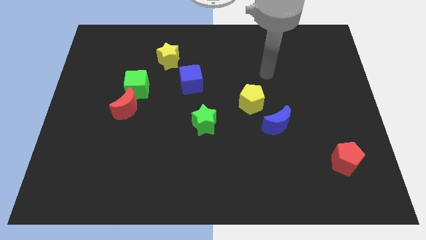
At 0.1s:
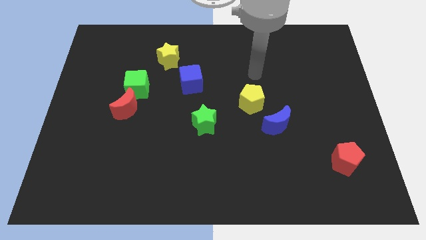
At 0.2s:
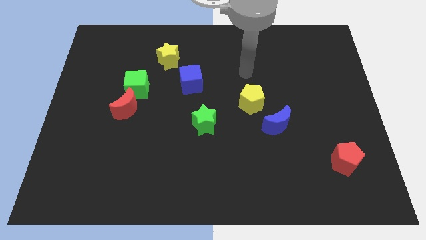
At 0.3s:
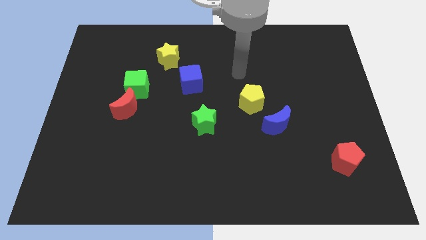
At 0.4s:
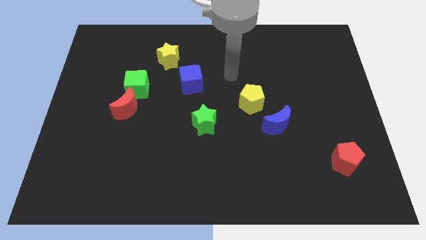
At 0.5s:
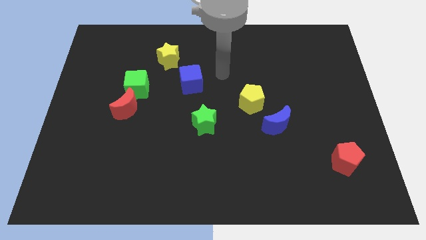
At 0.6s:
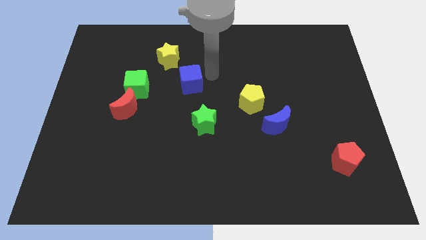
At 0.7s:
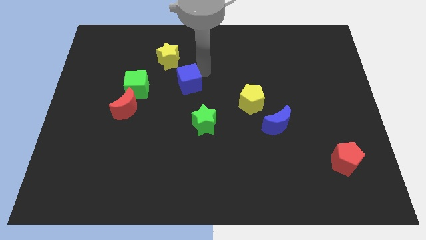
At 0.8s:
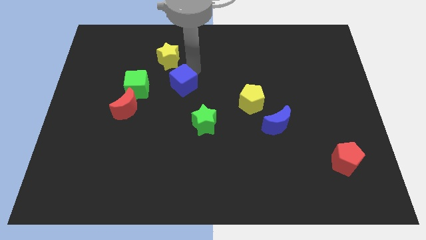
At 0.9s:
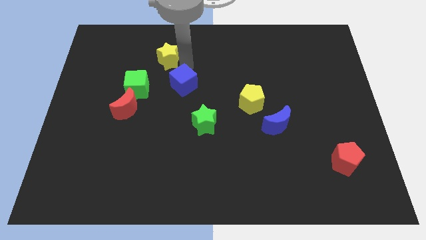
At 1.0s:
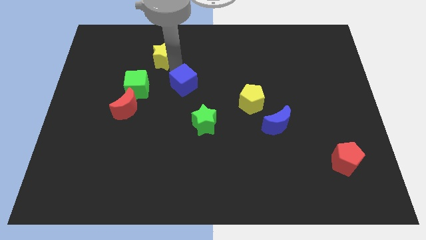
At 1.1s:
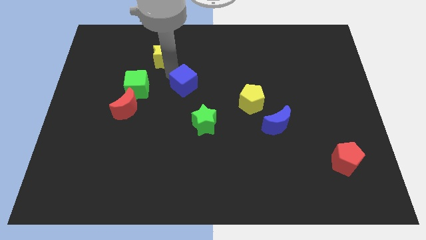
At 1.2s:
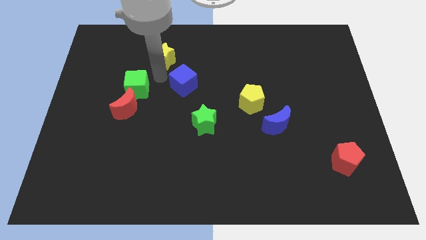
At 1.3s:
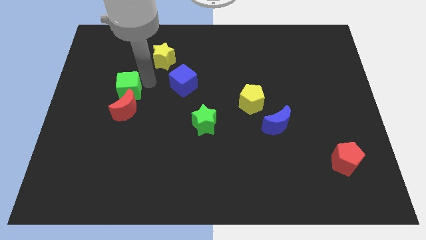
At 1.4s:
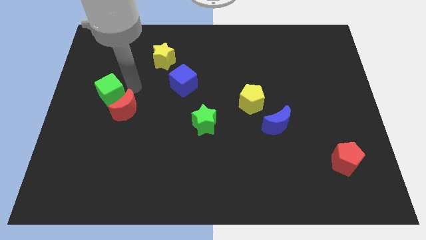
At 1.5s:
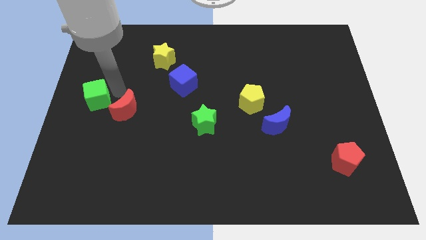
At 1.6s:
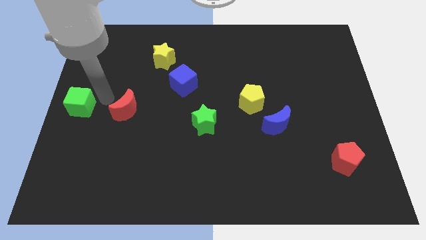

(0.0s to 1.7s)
pull the red moon apart from the green cube

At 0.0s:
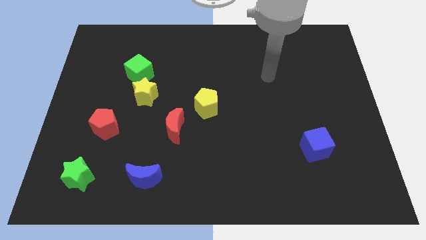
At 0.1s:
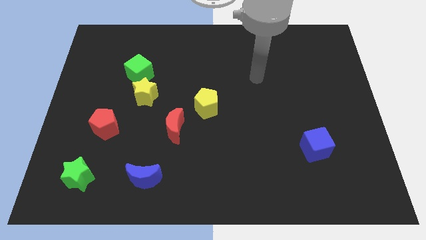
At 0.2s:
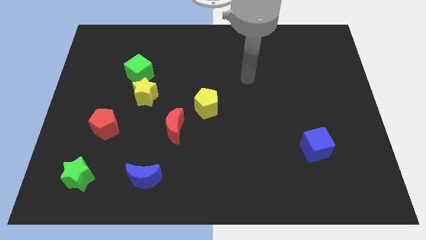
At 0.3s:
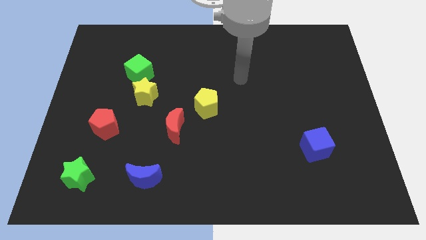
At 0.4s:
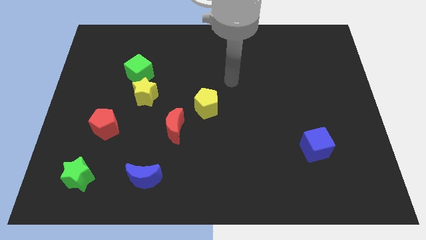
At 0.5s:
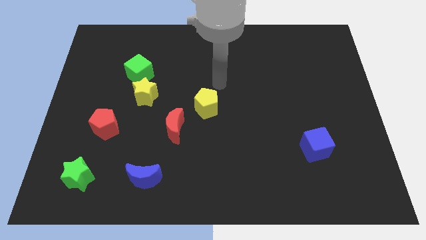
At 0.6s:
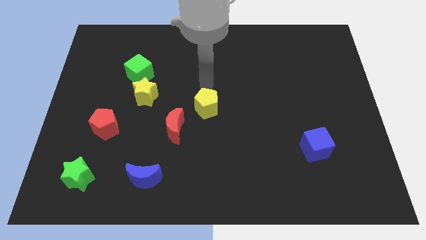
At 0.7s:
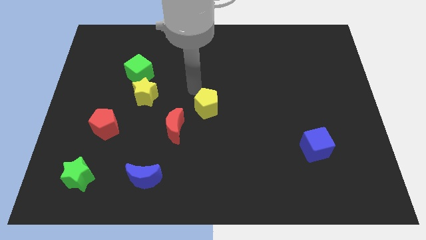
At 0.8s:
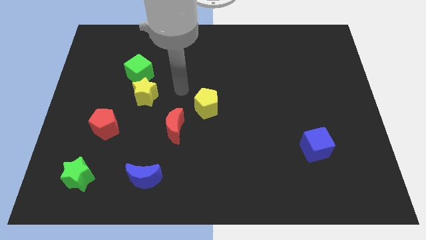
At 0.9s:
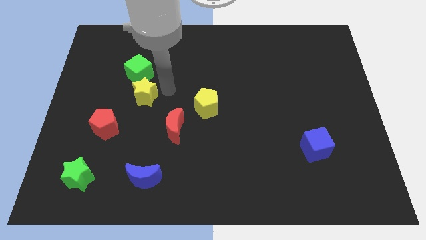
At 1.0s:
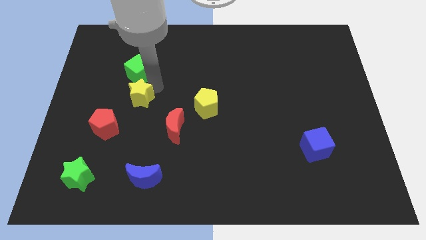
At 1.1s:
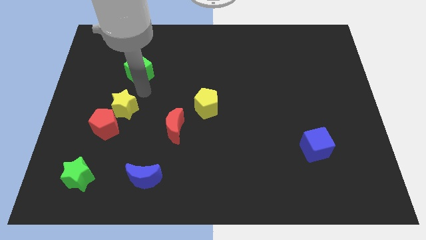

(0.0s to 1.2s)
move the green cube away from the yellow star

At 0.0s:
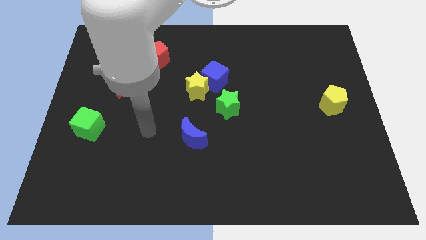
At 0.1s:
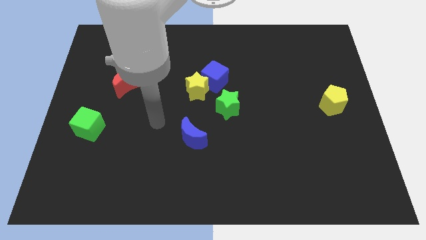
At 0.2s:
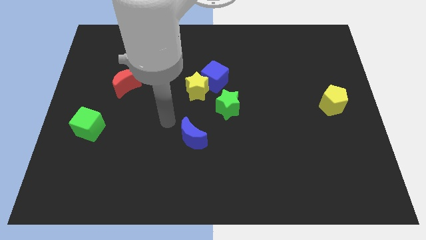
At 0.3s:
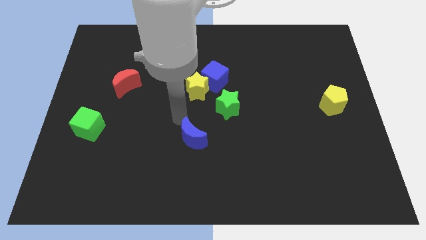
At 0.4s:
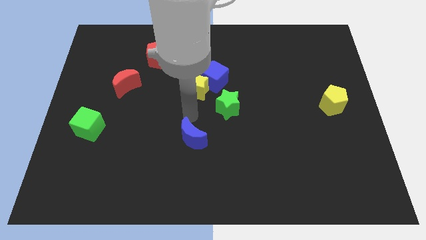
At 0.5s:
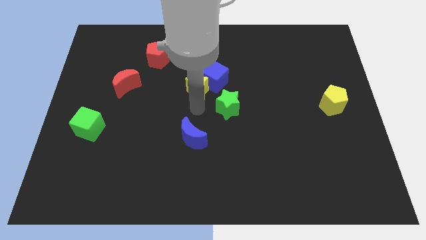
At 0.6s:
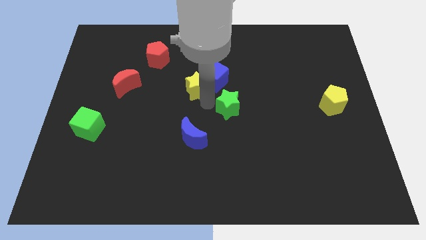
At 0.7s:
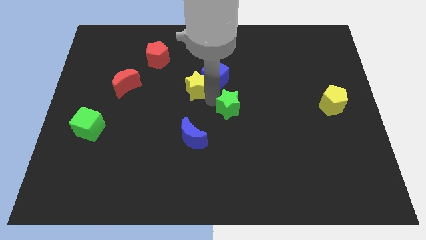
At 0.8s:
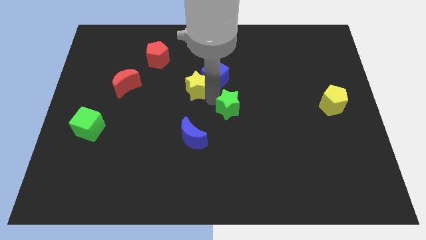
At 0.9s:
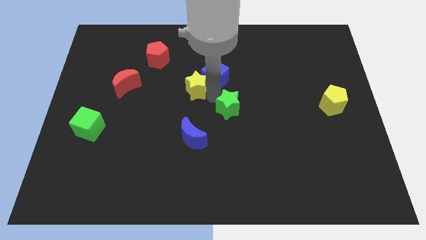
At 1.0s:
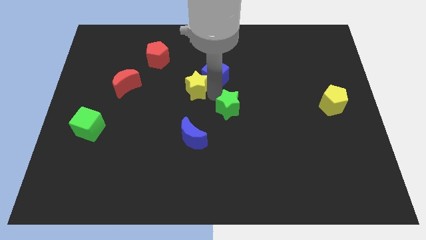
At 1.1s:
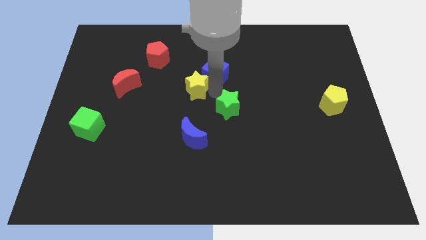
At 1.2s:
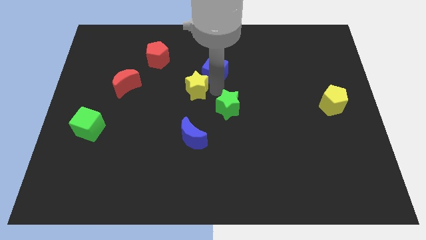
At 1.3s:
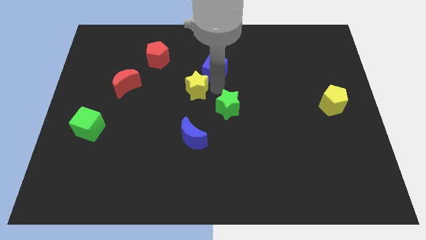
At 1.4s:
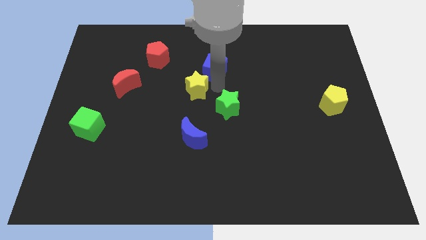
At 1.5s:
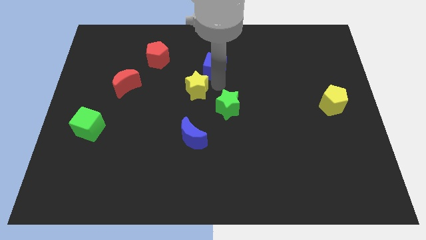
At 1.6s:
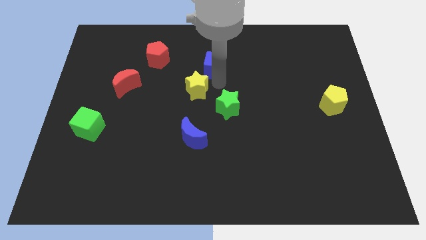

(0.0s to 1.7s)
pull the blue cube apart from the yellow star and green star

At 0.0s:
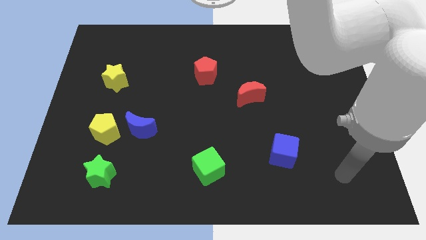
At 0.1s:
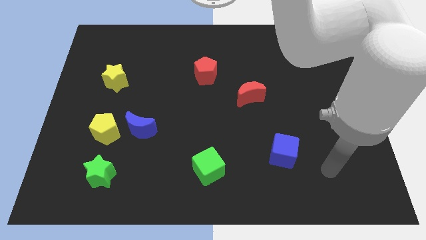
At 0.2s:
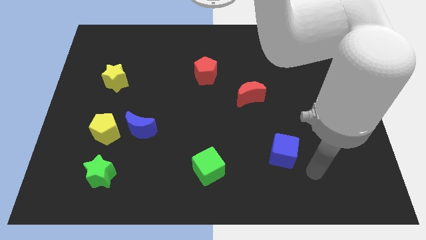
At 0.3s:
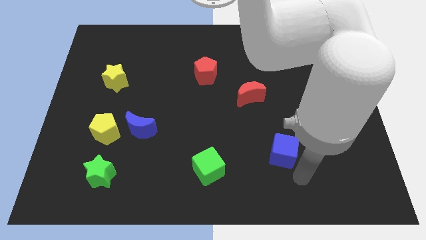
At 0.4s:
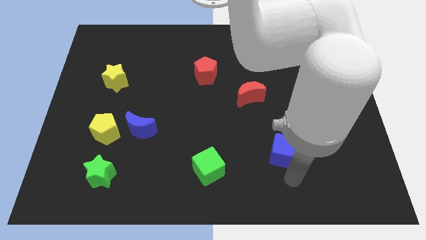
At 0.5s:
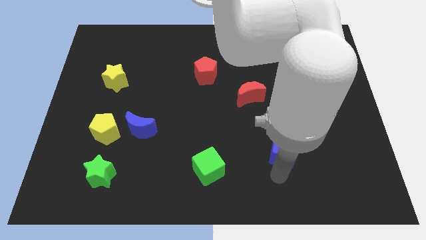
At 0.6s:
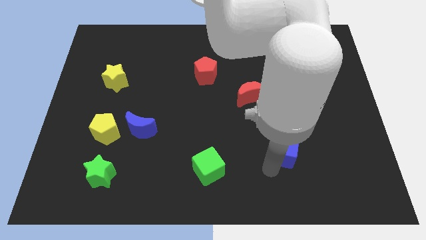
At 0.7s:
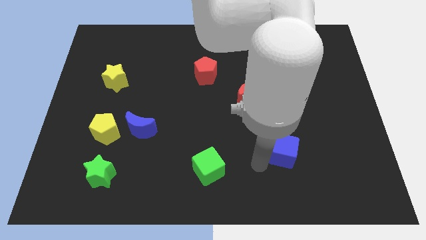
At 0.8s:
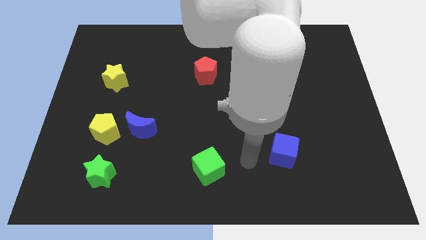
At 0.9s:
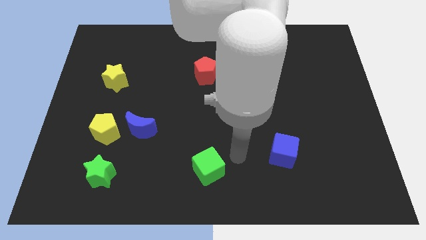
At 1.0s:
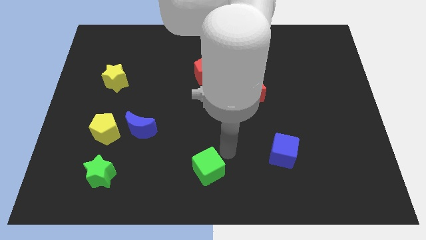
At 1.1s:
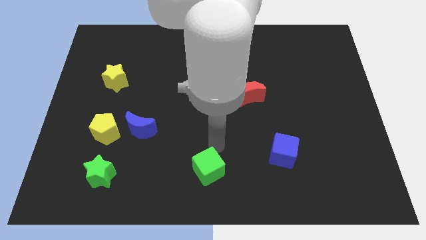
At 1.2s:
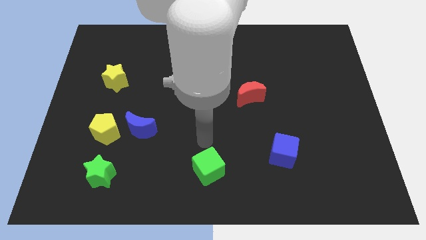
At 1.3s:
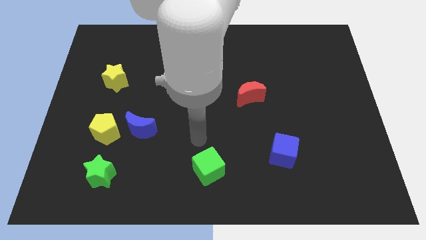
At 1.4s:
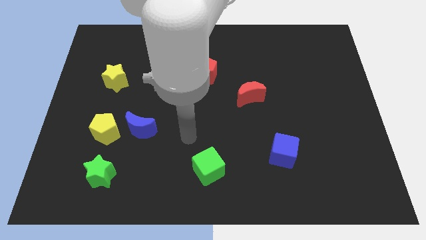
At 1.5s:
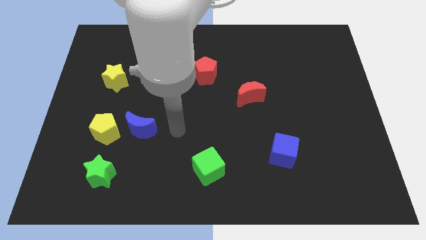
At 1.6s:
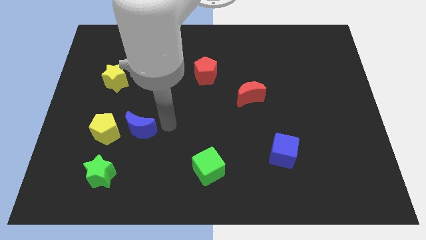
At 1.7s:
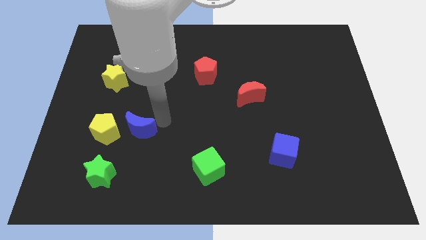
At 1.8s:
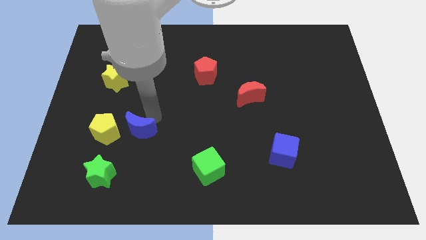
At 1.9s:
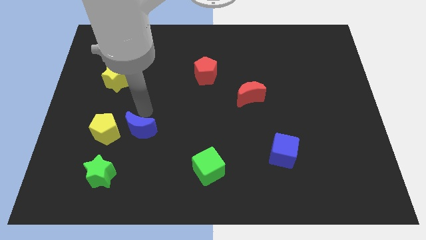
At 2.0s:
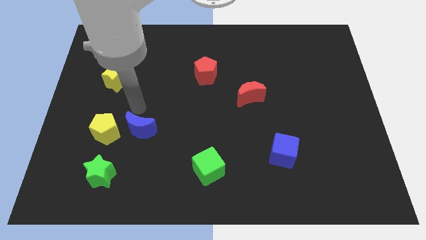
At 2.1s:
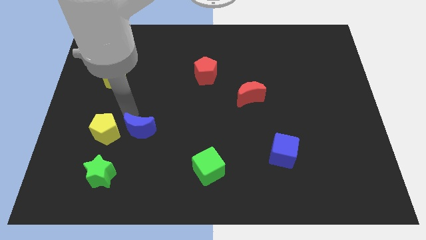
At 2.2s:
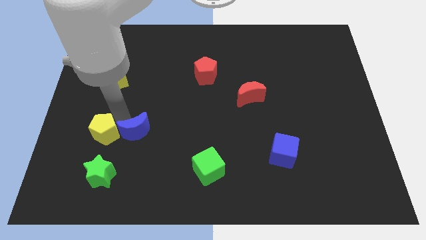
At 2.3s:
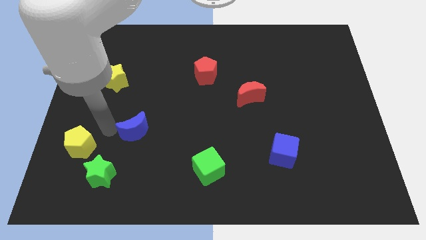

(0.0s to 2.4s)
pull the blue moon apart from the yellow pentagon

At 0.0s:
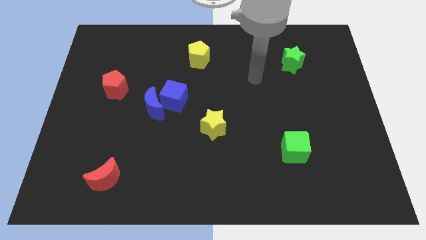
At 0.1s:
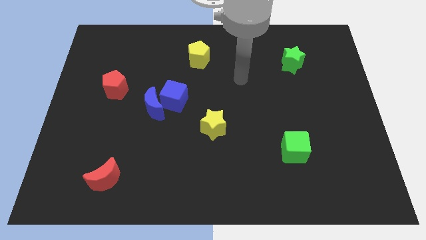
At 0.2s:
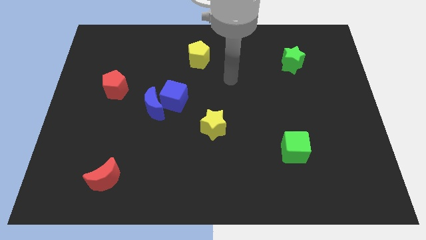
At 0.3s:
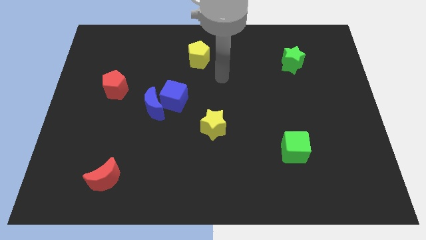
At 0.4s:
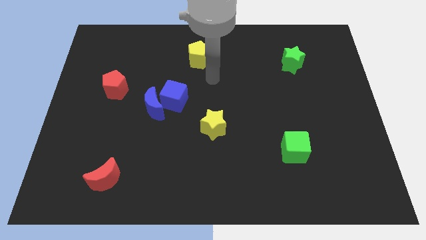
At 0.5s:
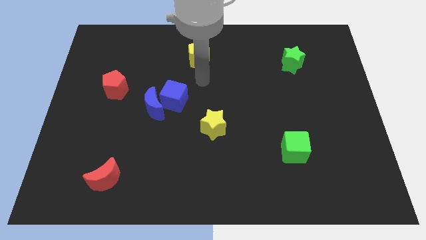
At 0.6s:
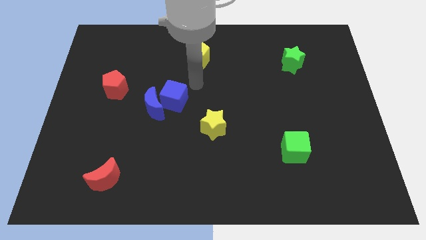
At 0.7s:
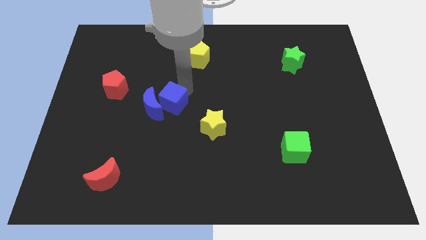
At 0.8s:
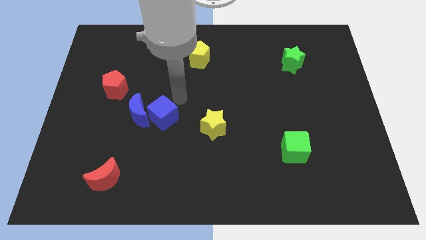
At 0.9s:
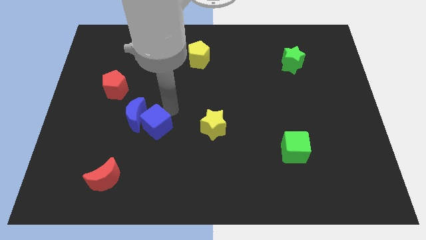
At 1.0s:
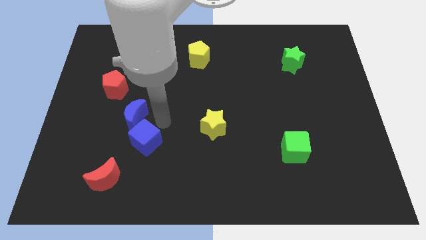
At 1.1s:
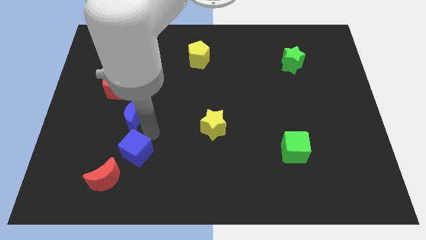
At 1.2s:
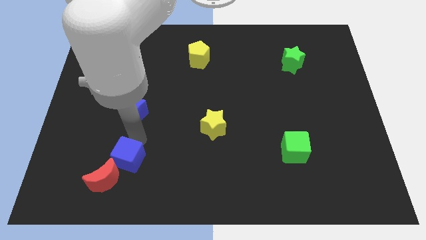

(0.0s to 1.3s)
separate the blue moon from the blue cube

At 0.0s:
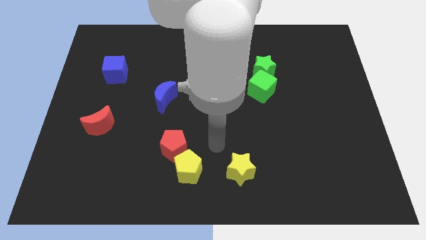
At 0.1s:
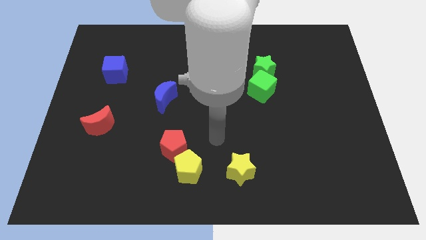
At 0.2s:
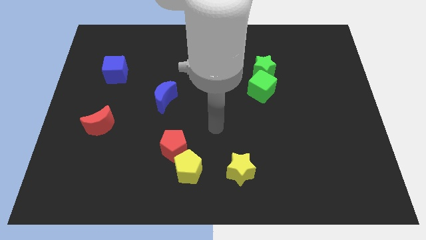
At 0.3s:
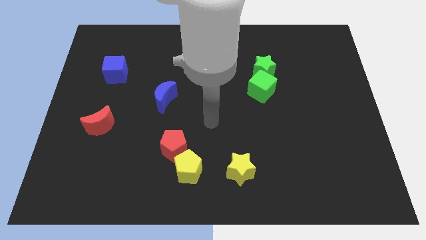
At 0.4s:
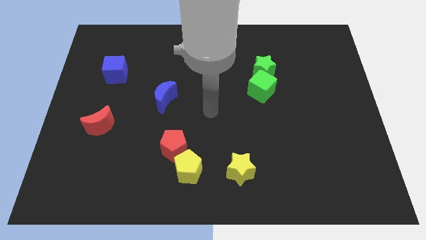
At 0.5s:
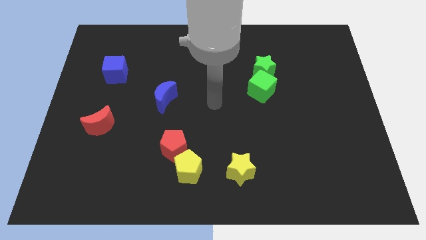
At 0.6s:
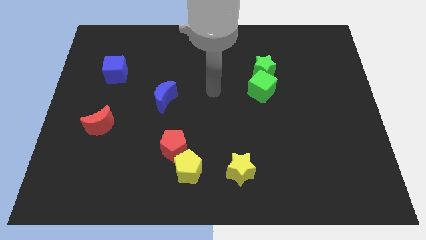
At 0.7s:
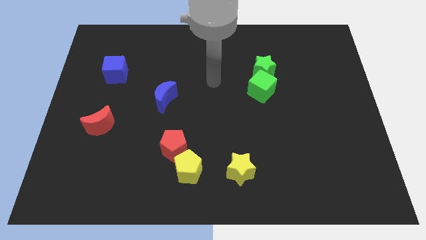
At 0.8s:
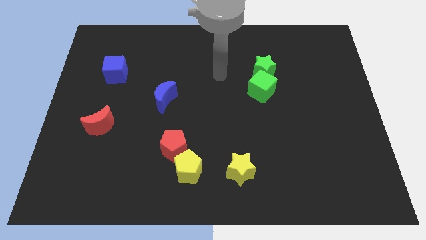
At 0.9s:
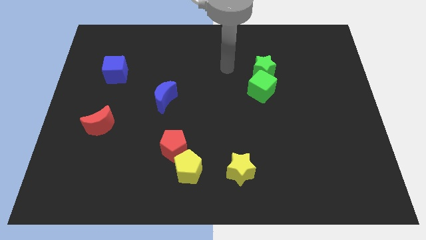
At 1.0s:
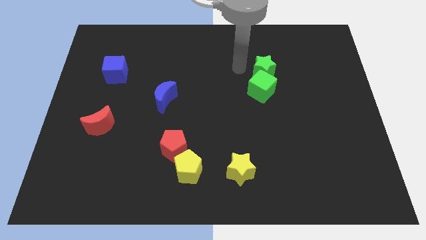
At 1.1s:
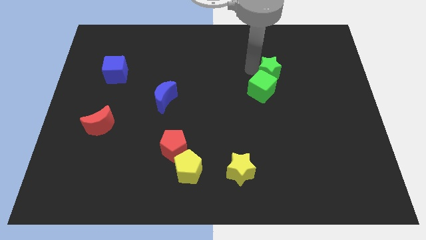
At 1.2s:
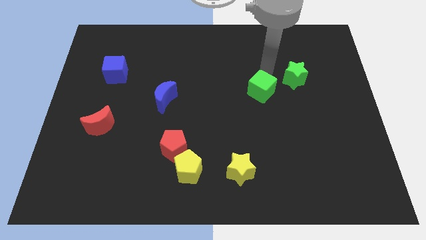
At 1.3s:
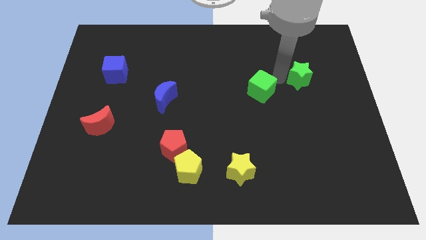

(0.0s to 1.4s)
move the green cube away from the green star
